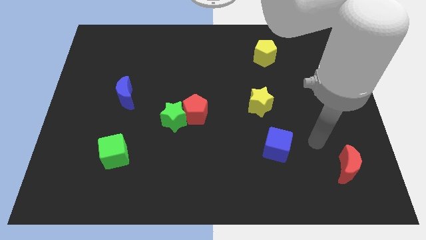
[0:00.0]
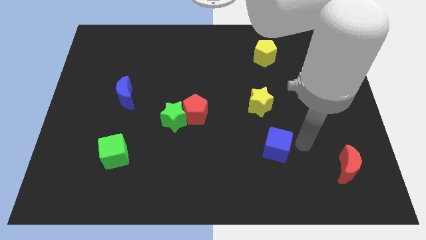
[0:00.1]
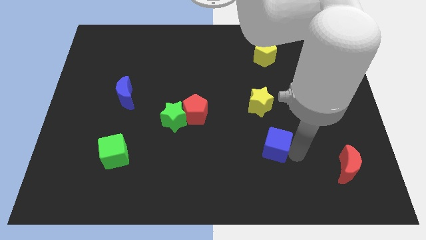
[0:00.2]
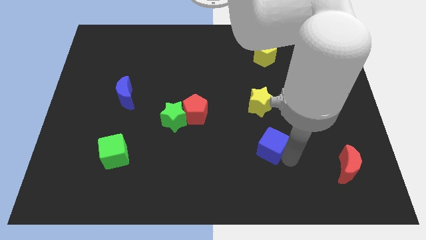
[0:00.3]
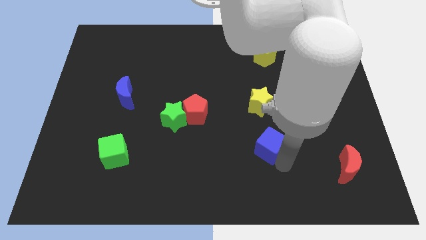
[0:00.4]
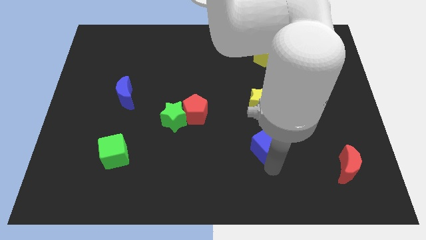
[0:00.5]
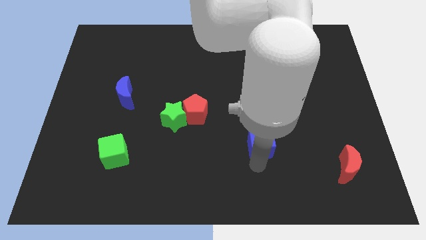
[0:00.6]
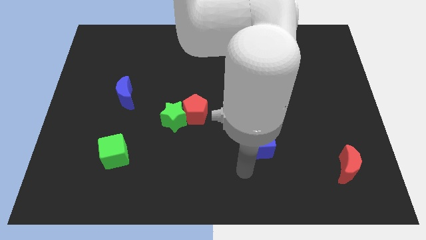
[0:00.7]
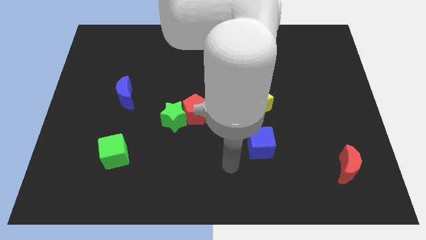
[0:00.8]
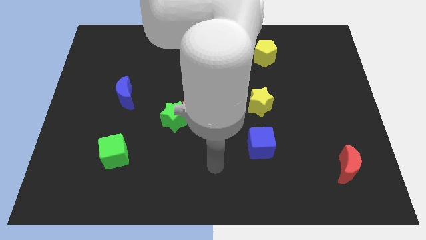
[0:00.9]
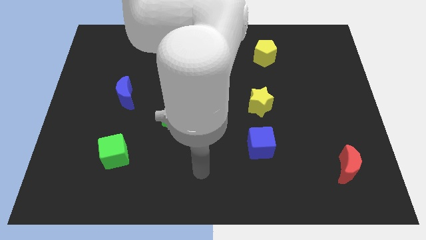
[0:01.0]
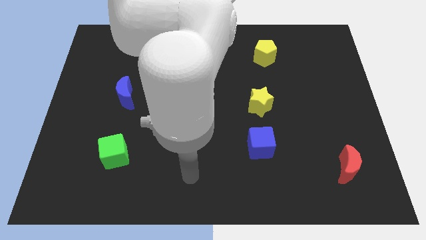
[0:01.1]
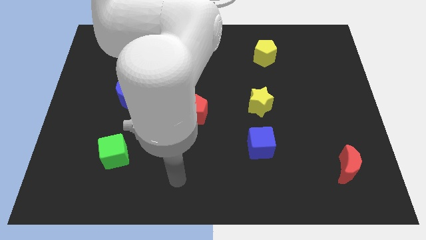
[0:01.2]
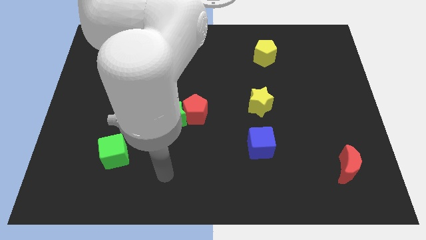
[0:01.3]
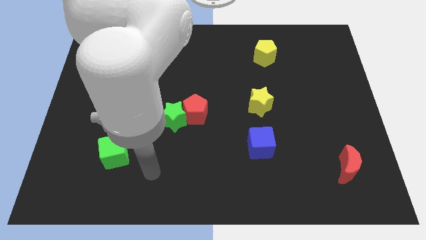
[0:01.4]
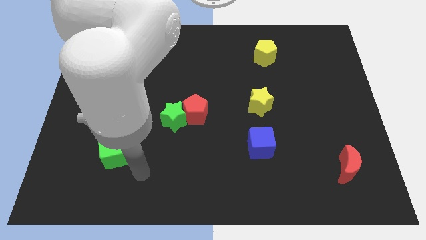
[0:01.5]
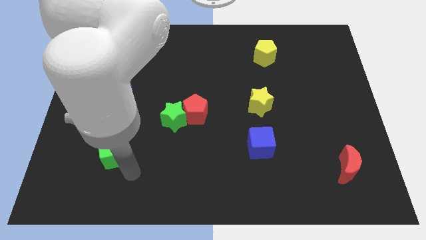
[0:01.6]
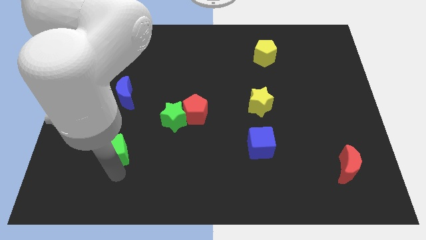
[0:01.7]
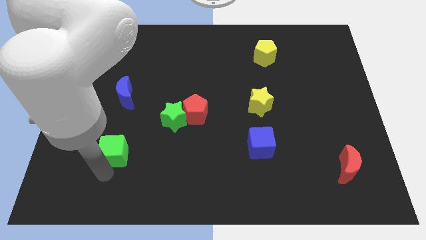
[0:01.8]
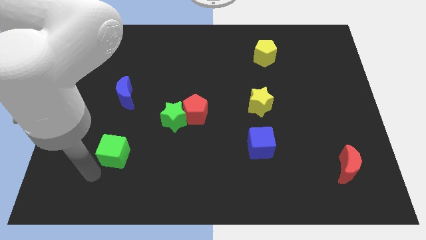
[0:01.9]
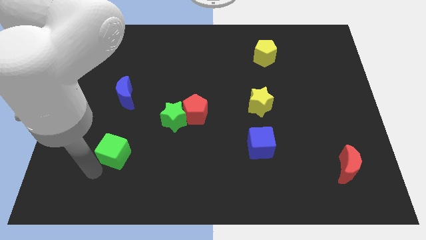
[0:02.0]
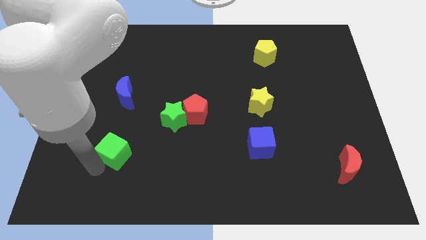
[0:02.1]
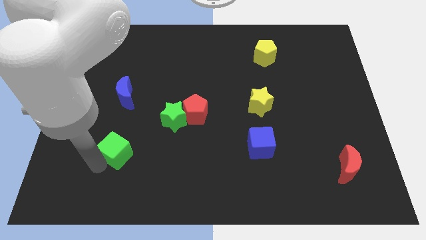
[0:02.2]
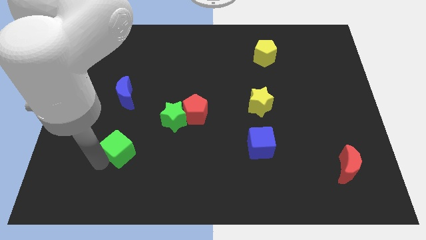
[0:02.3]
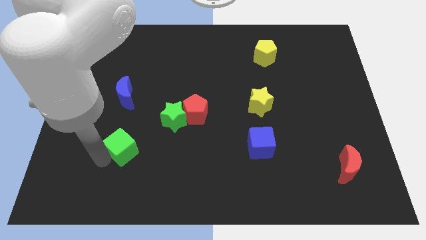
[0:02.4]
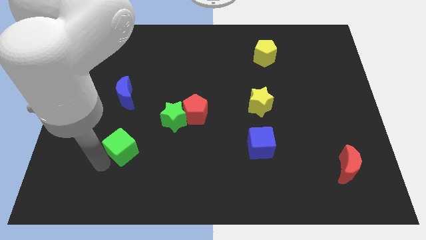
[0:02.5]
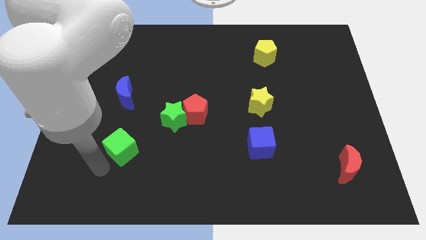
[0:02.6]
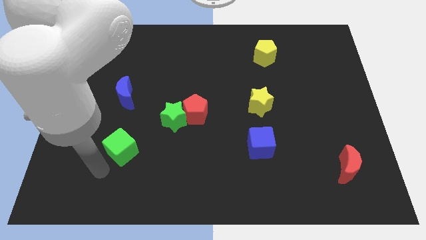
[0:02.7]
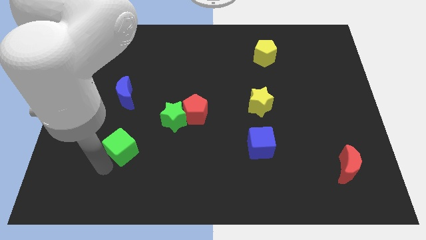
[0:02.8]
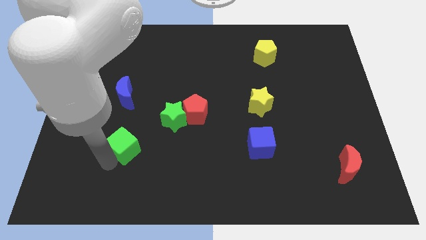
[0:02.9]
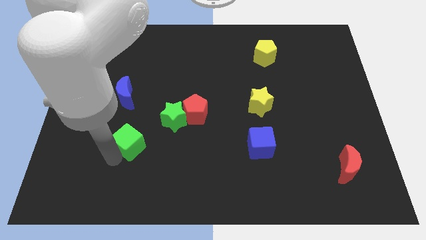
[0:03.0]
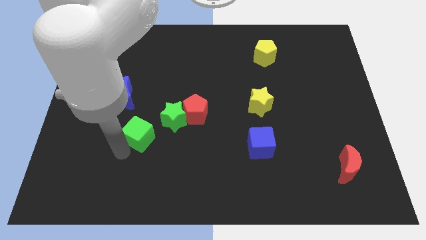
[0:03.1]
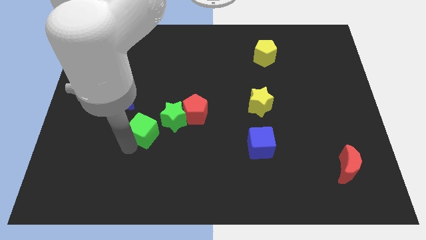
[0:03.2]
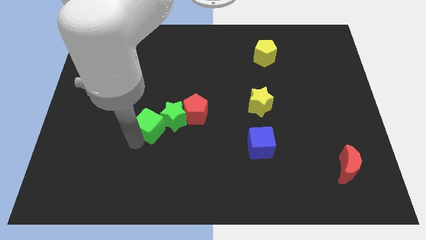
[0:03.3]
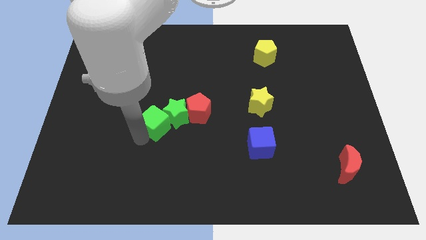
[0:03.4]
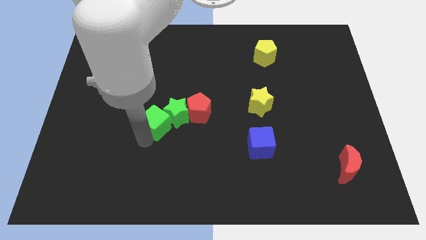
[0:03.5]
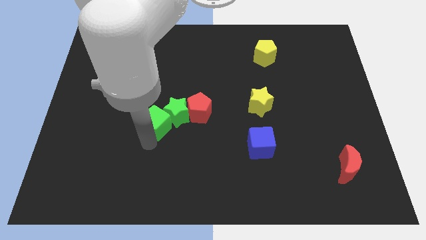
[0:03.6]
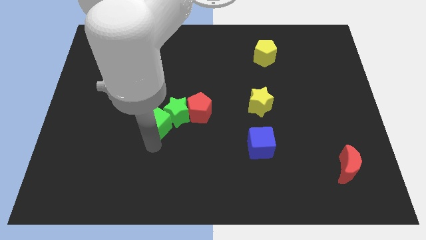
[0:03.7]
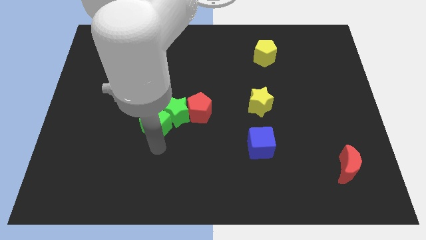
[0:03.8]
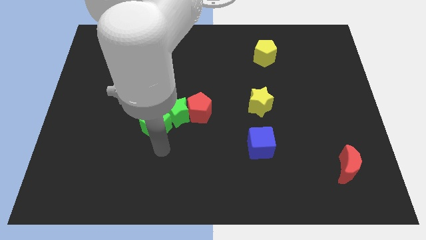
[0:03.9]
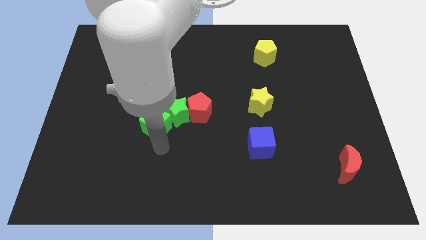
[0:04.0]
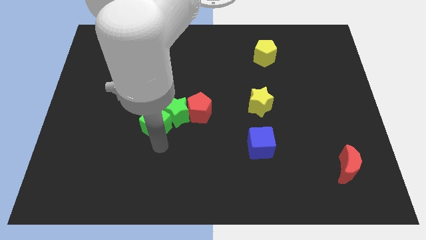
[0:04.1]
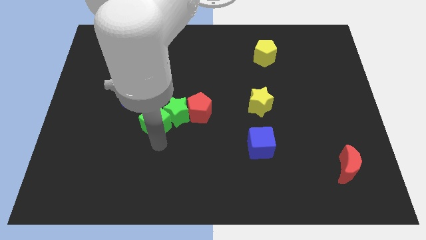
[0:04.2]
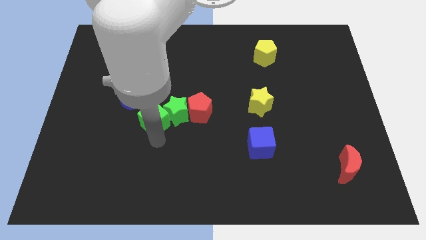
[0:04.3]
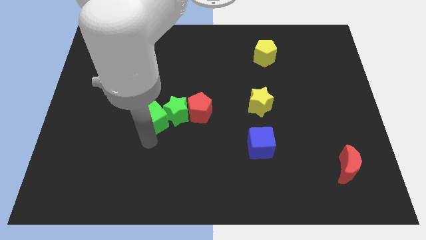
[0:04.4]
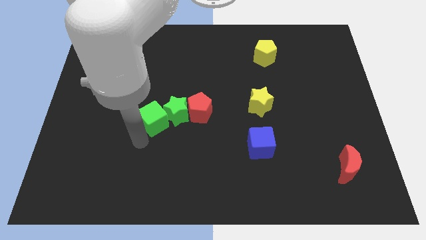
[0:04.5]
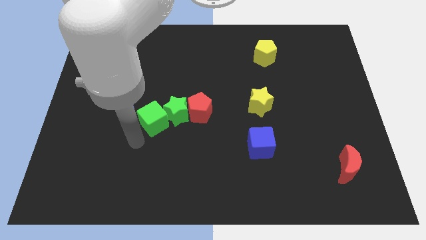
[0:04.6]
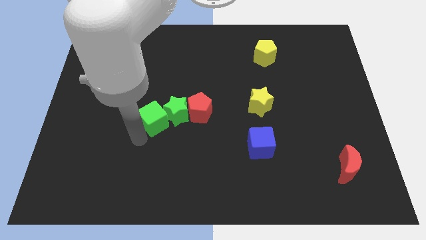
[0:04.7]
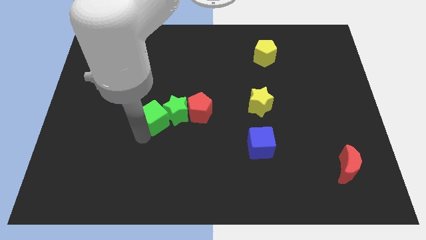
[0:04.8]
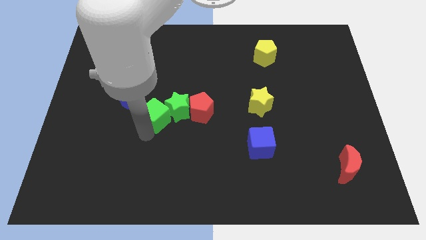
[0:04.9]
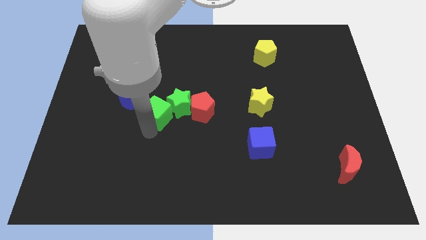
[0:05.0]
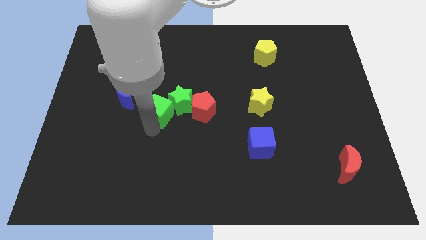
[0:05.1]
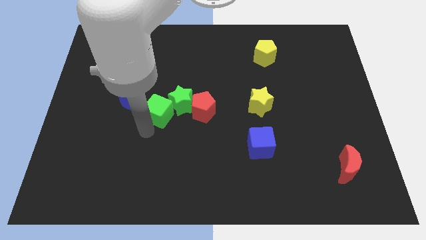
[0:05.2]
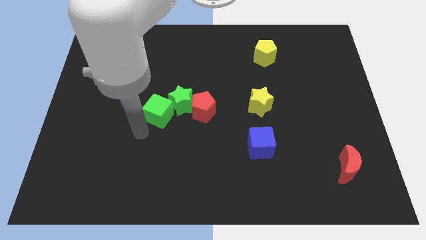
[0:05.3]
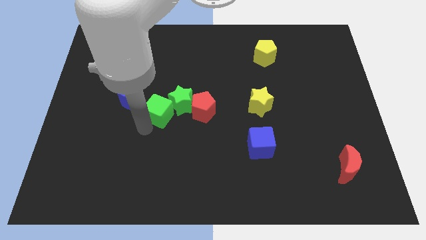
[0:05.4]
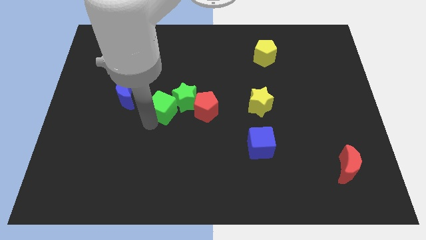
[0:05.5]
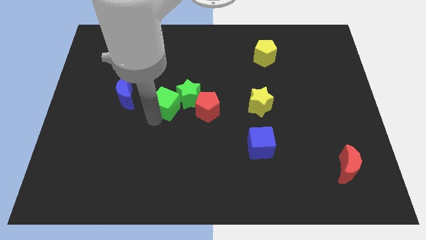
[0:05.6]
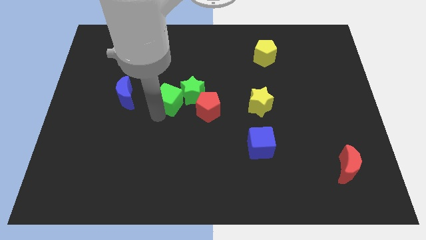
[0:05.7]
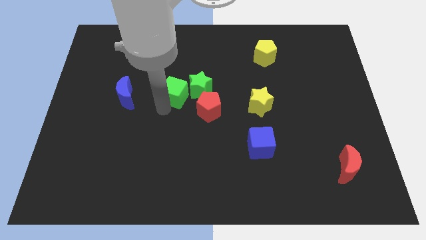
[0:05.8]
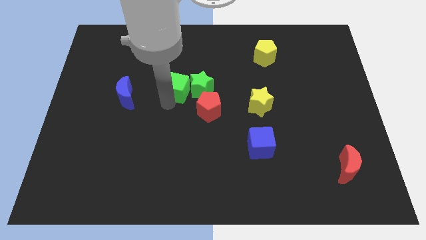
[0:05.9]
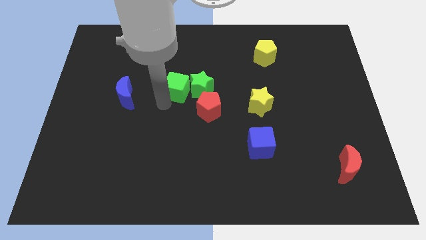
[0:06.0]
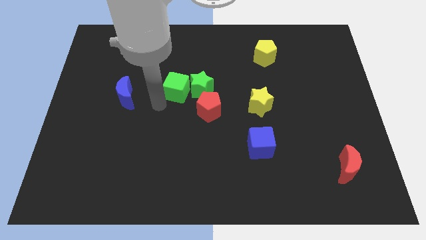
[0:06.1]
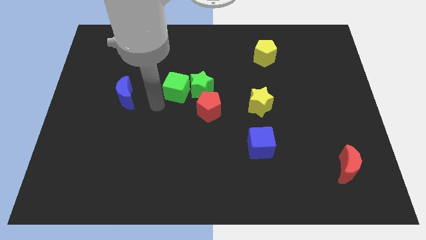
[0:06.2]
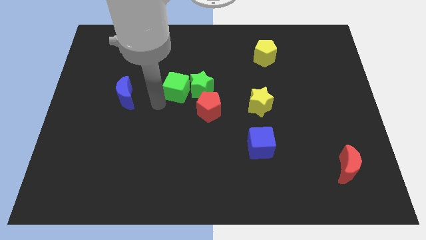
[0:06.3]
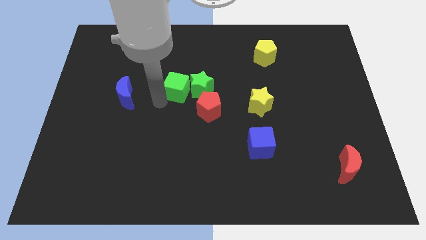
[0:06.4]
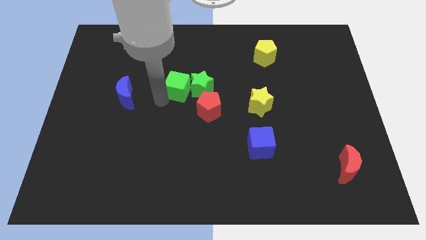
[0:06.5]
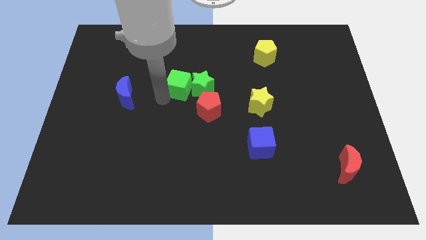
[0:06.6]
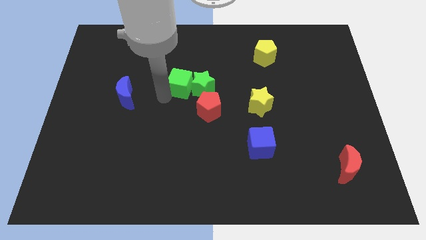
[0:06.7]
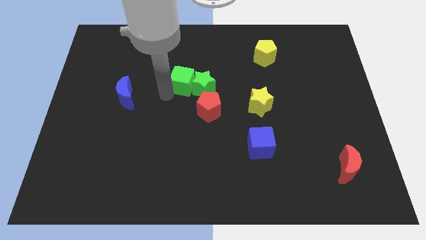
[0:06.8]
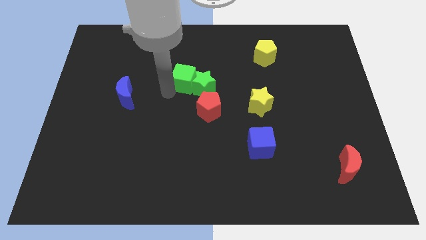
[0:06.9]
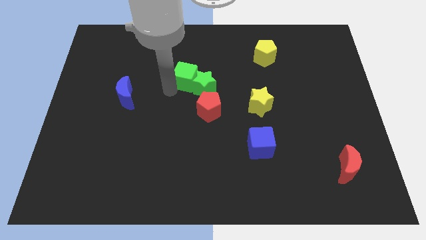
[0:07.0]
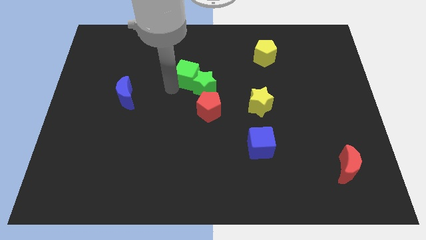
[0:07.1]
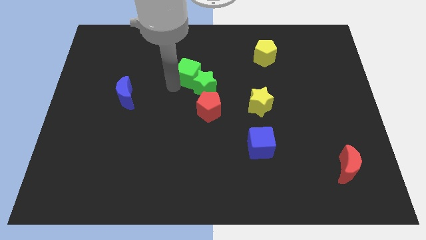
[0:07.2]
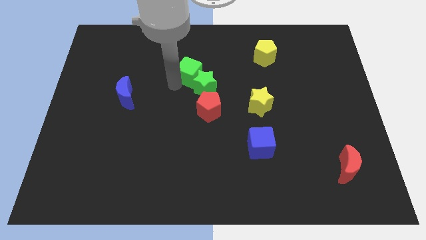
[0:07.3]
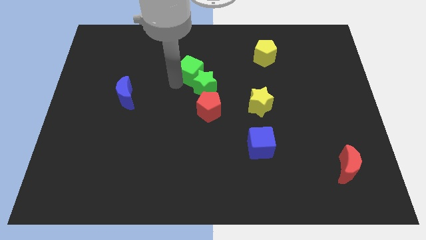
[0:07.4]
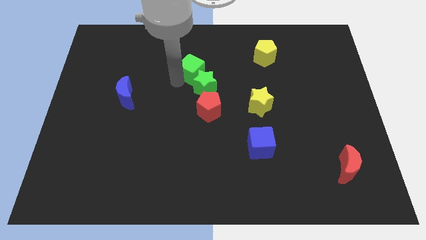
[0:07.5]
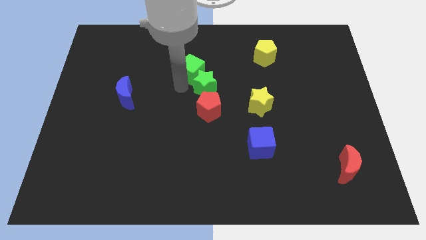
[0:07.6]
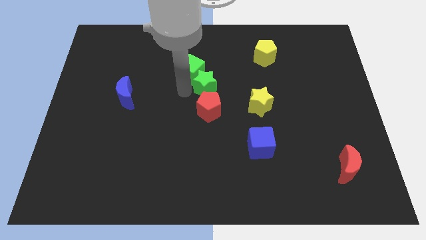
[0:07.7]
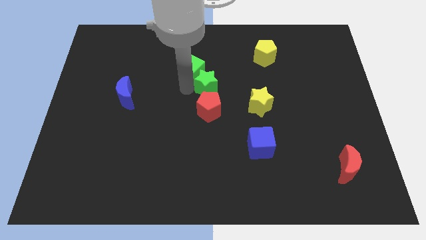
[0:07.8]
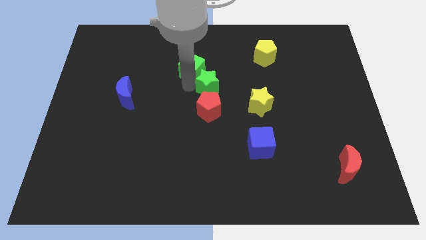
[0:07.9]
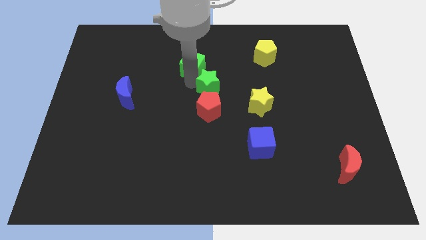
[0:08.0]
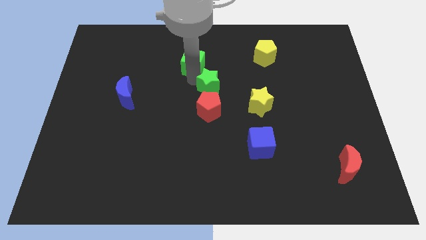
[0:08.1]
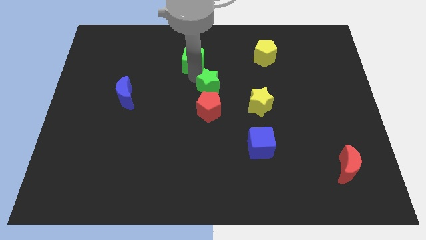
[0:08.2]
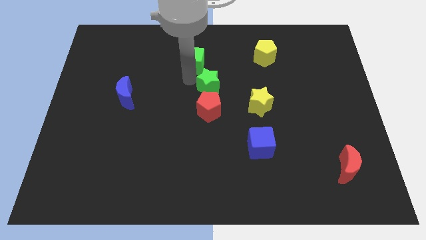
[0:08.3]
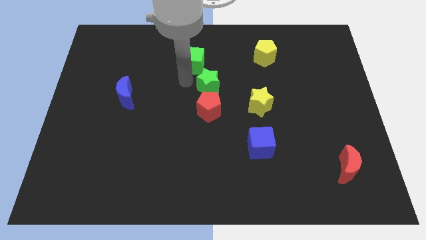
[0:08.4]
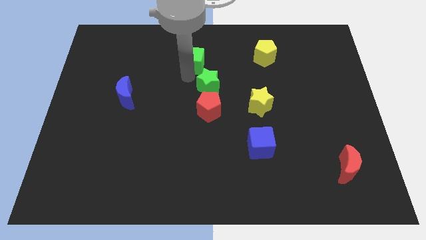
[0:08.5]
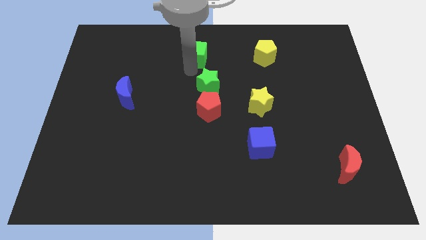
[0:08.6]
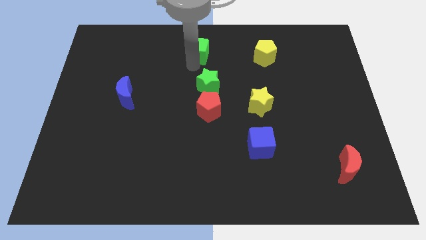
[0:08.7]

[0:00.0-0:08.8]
push the green cube to the top
